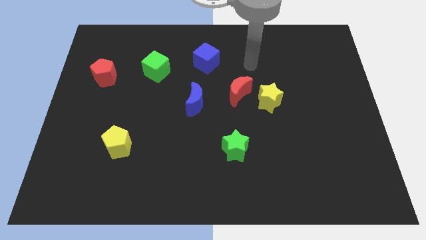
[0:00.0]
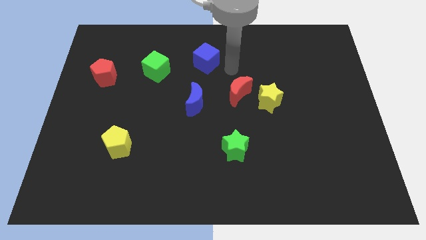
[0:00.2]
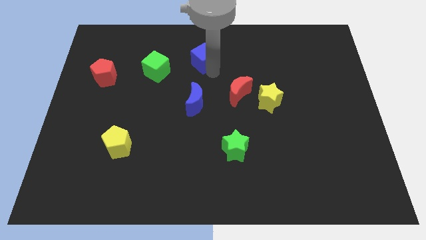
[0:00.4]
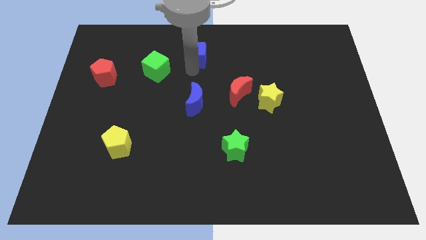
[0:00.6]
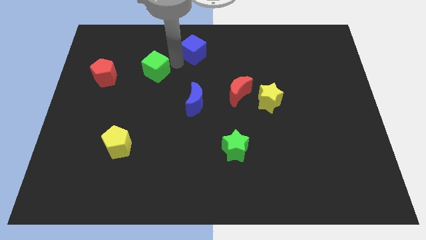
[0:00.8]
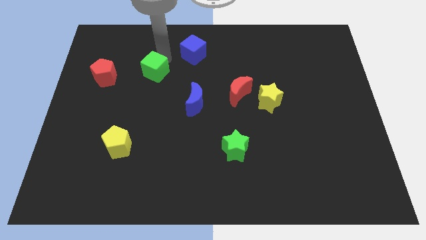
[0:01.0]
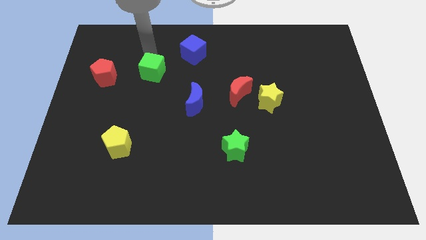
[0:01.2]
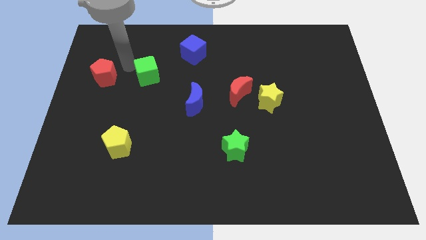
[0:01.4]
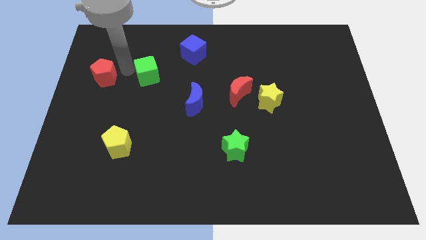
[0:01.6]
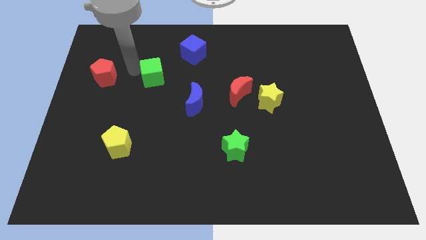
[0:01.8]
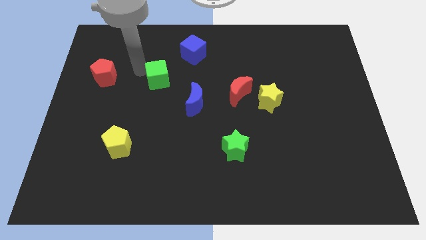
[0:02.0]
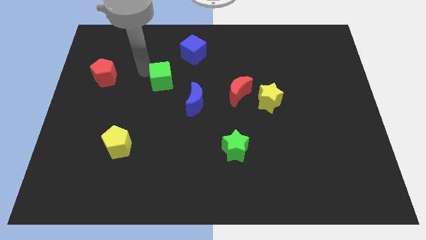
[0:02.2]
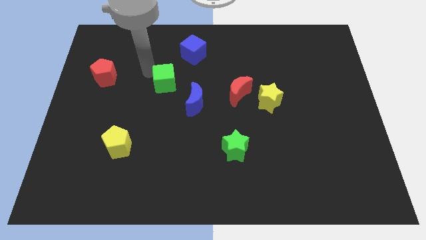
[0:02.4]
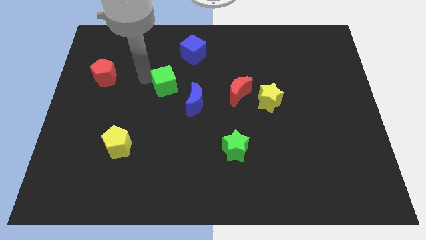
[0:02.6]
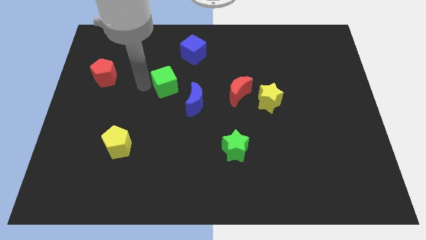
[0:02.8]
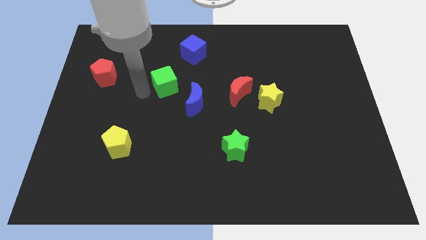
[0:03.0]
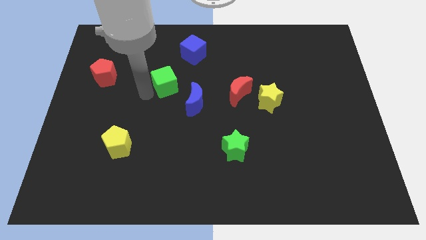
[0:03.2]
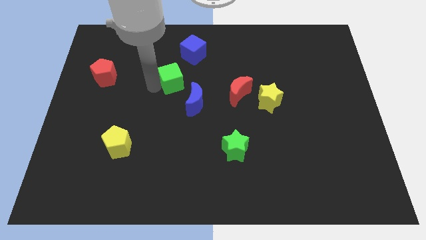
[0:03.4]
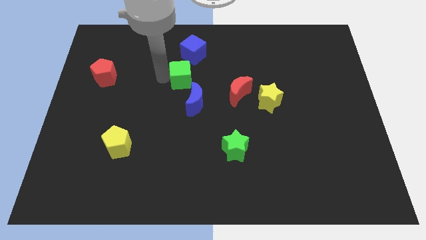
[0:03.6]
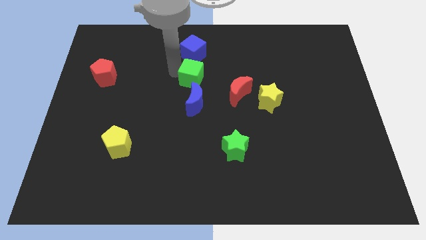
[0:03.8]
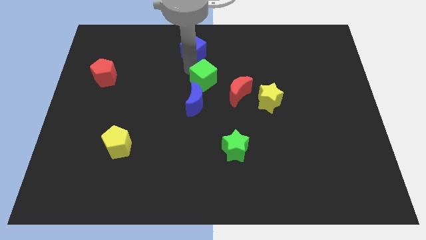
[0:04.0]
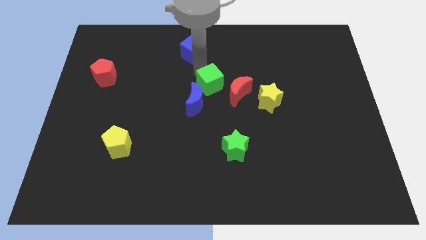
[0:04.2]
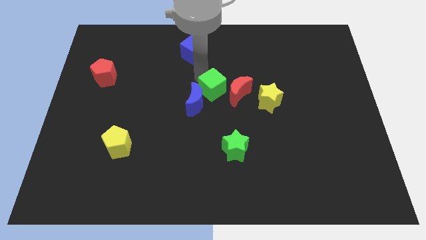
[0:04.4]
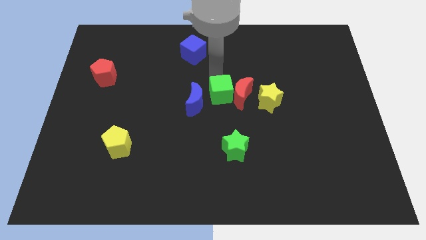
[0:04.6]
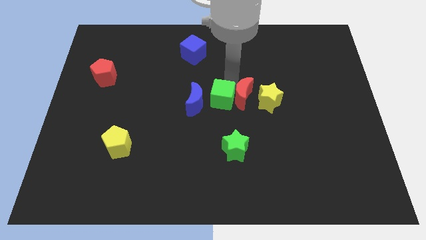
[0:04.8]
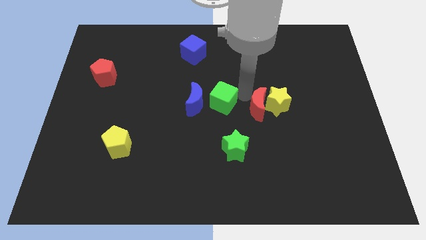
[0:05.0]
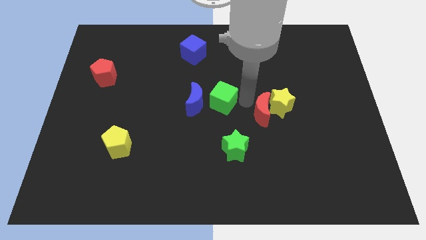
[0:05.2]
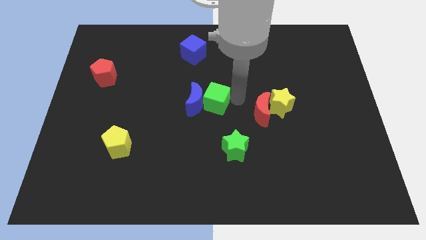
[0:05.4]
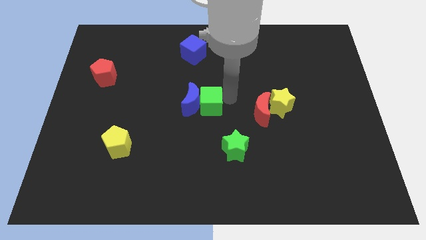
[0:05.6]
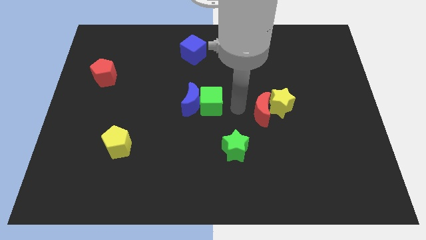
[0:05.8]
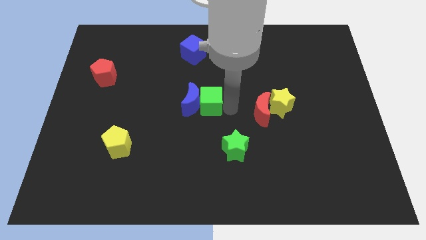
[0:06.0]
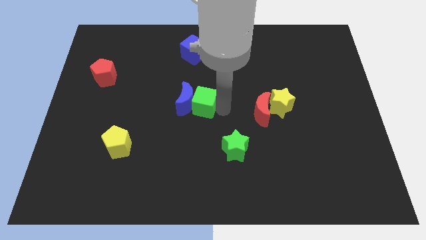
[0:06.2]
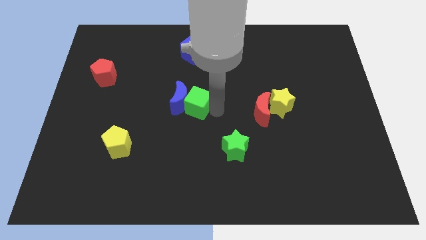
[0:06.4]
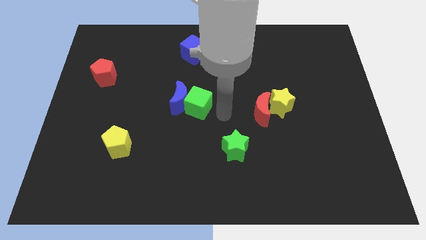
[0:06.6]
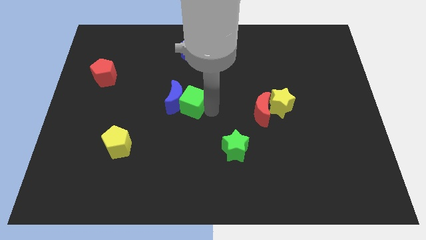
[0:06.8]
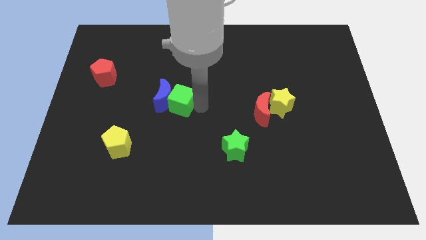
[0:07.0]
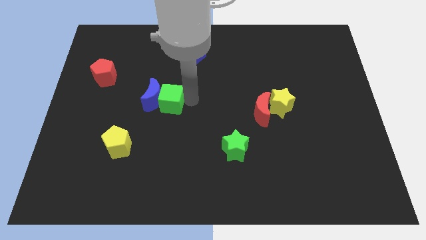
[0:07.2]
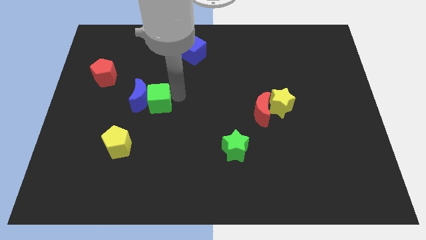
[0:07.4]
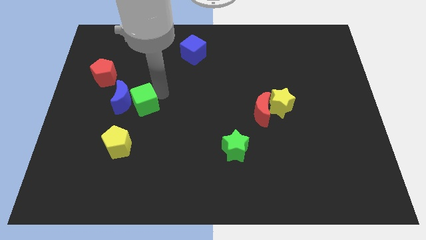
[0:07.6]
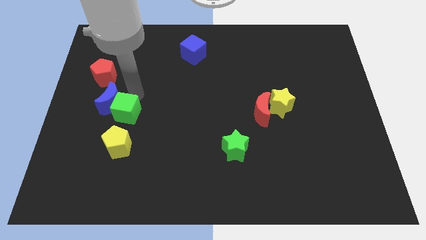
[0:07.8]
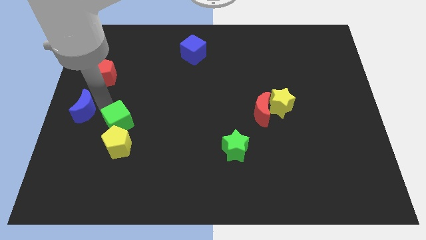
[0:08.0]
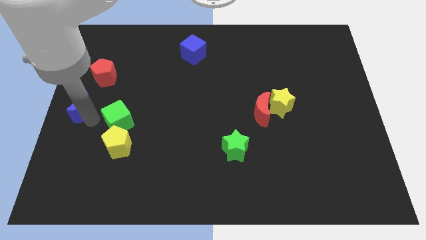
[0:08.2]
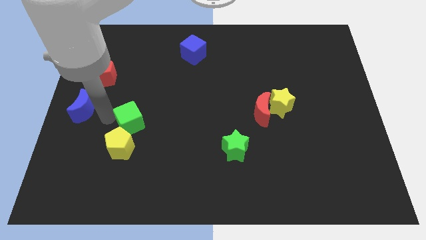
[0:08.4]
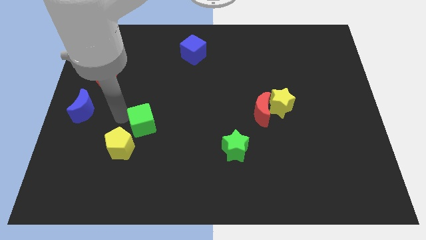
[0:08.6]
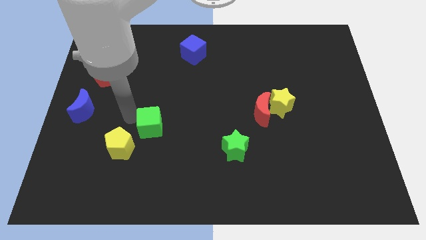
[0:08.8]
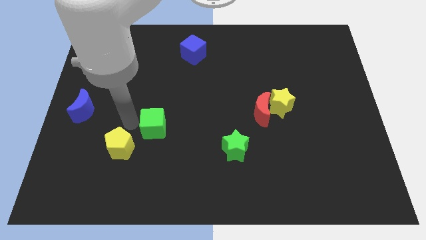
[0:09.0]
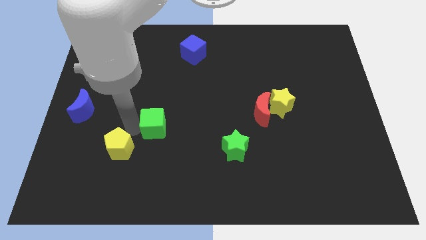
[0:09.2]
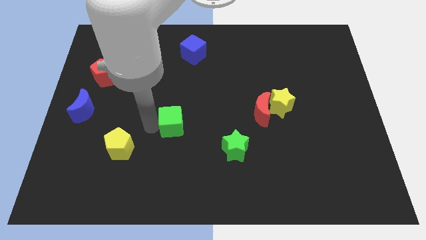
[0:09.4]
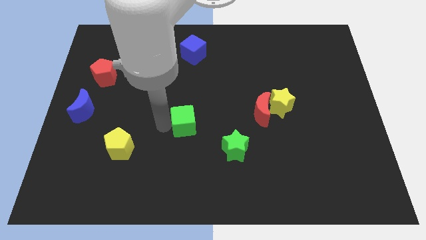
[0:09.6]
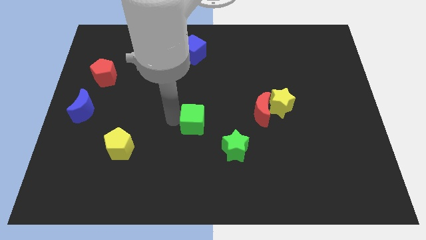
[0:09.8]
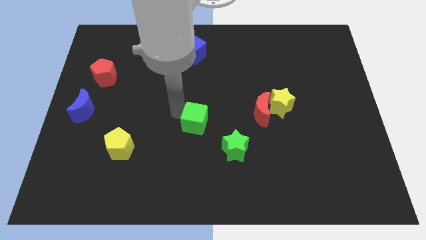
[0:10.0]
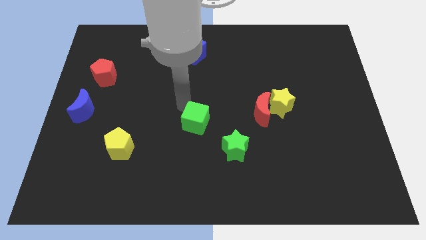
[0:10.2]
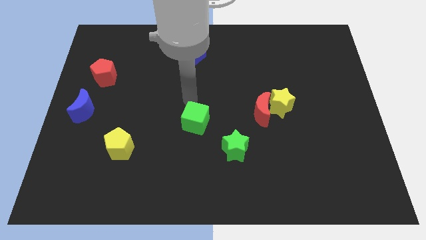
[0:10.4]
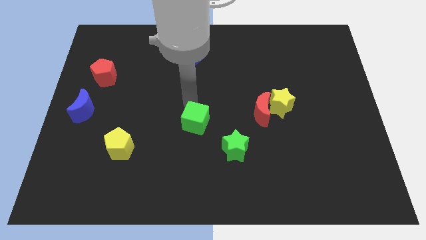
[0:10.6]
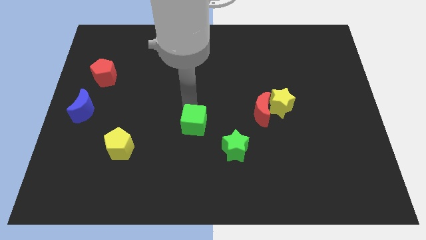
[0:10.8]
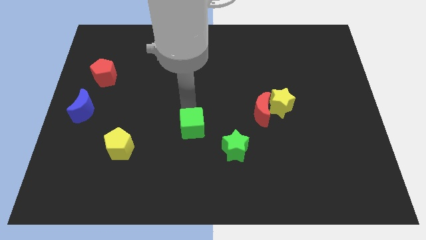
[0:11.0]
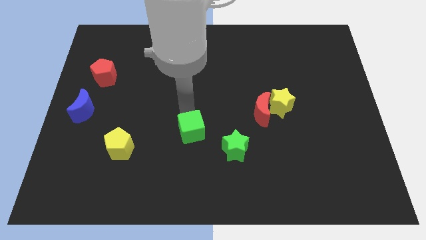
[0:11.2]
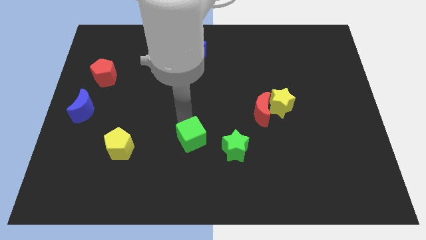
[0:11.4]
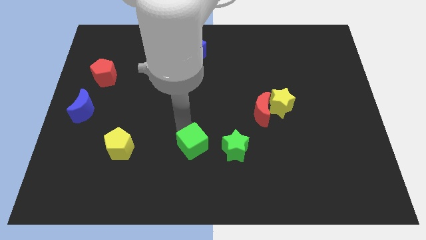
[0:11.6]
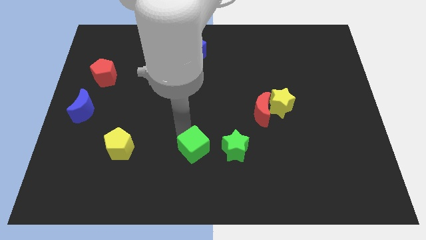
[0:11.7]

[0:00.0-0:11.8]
move the green cube downwards and to the right

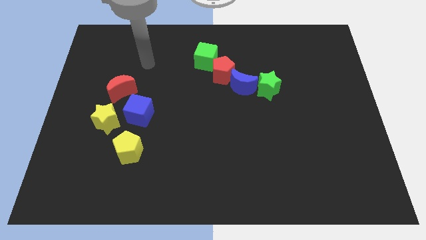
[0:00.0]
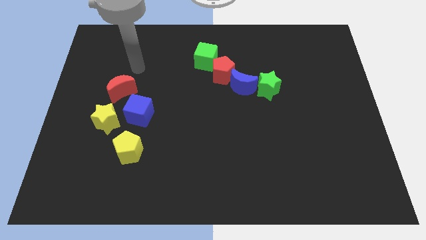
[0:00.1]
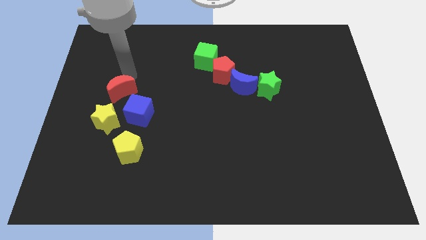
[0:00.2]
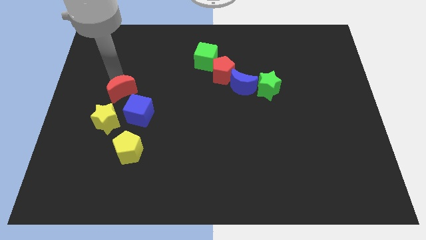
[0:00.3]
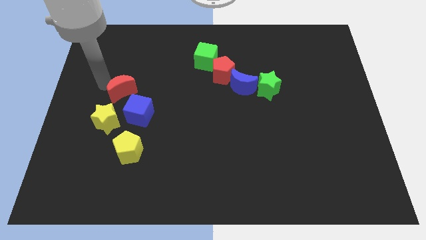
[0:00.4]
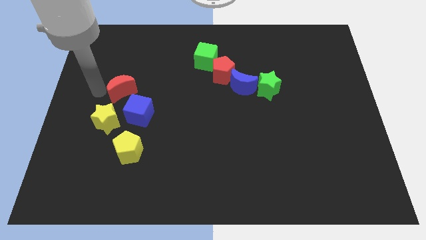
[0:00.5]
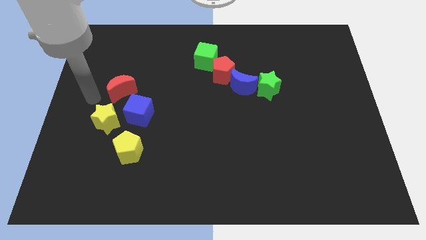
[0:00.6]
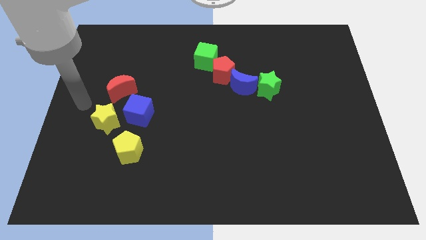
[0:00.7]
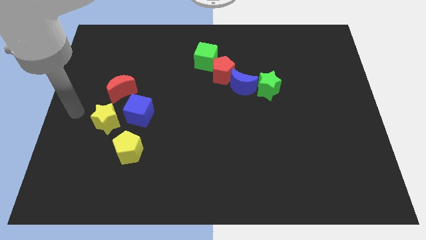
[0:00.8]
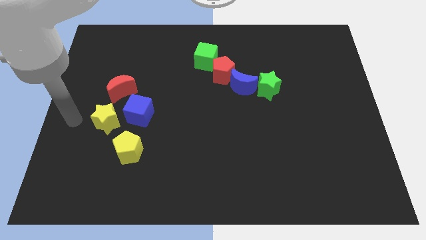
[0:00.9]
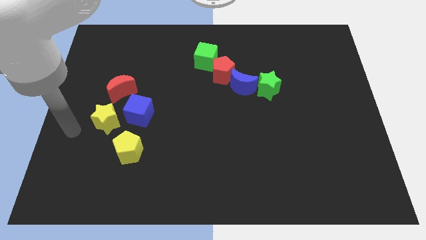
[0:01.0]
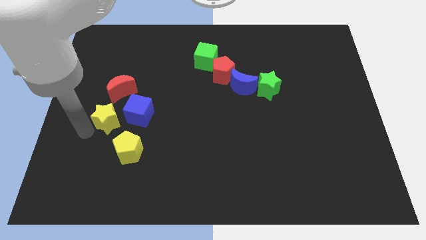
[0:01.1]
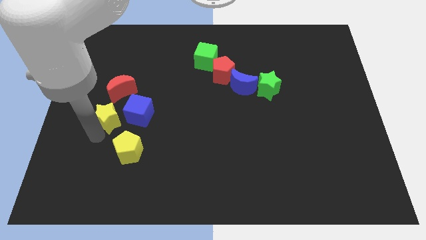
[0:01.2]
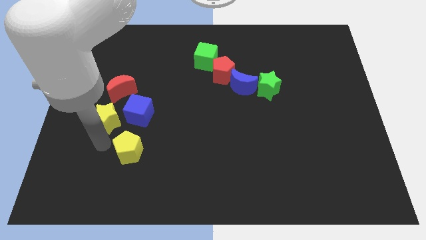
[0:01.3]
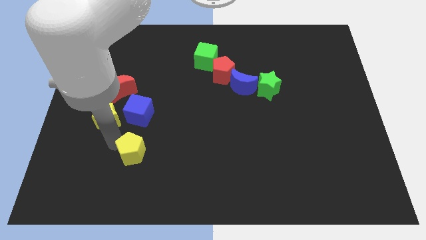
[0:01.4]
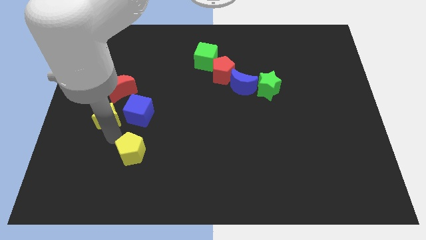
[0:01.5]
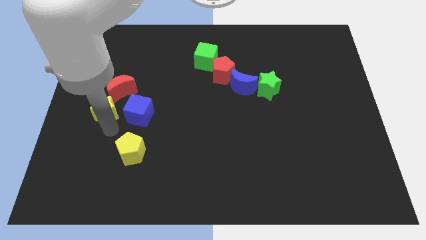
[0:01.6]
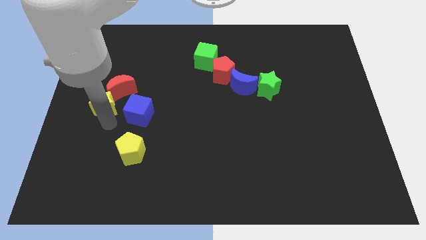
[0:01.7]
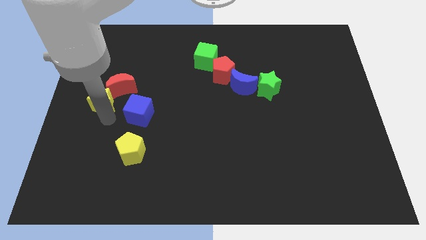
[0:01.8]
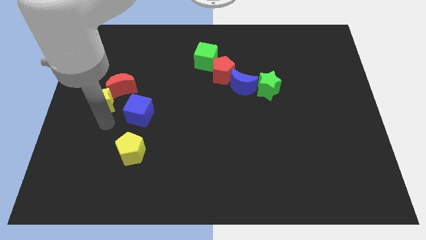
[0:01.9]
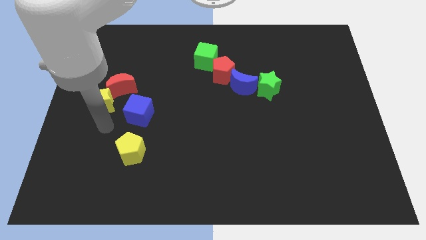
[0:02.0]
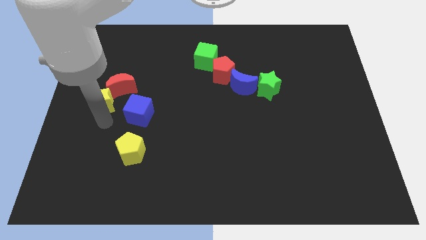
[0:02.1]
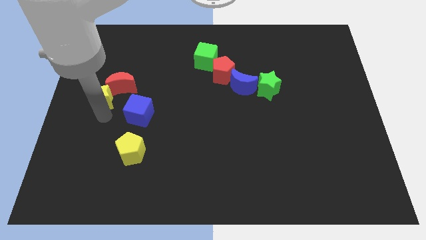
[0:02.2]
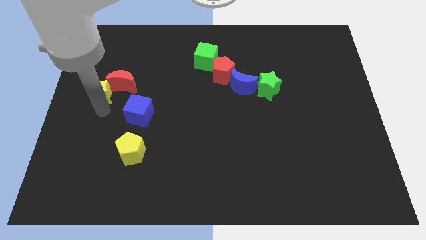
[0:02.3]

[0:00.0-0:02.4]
push the yellow star upwards a little
